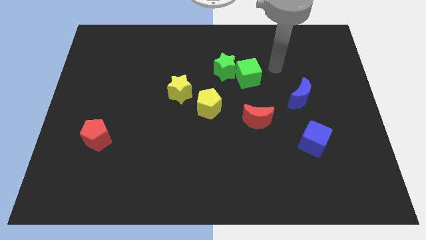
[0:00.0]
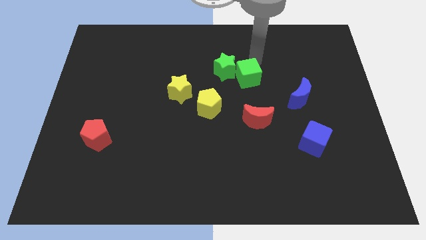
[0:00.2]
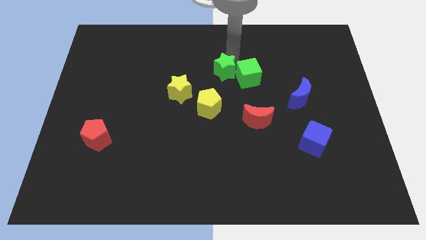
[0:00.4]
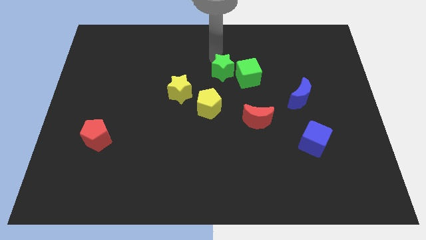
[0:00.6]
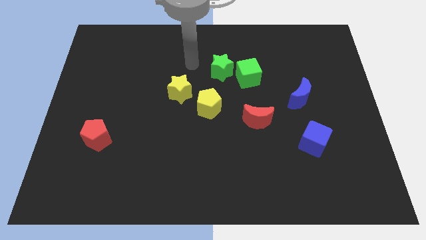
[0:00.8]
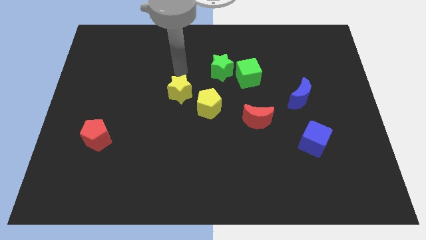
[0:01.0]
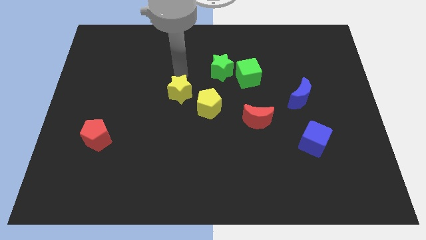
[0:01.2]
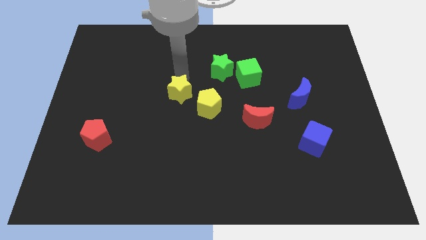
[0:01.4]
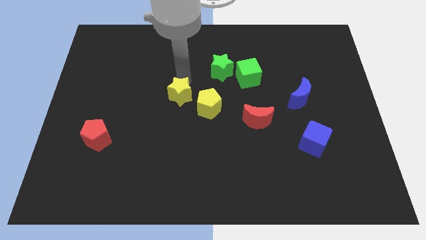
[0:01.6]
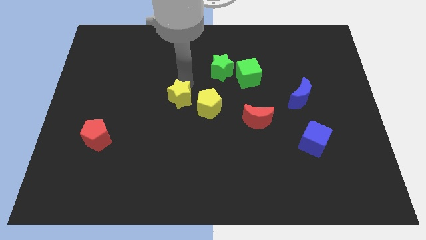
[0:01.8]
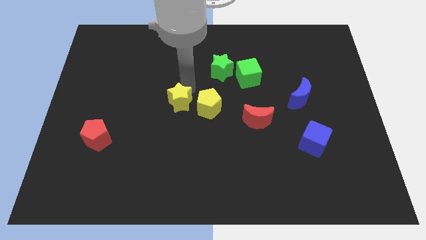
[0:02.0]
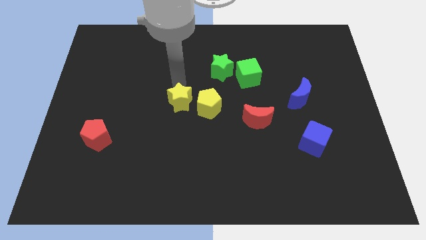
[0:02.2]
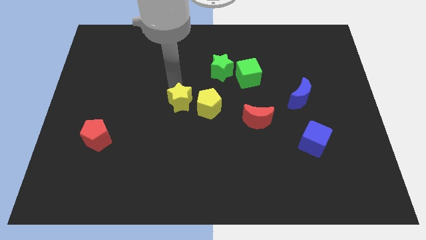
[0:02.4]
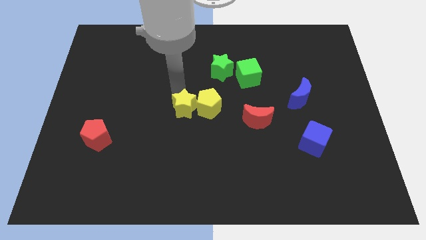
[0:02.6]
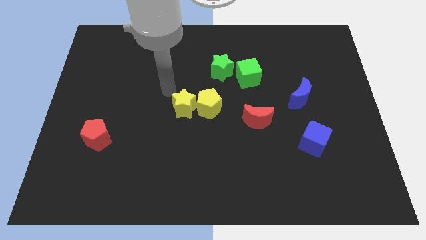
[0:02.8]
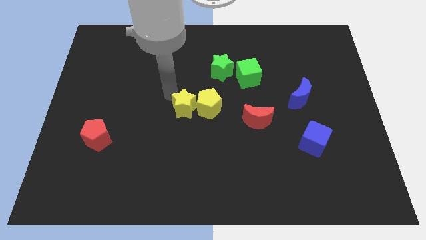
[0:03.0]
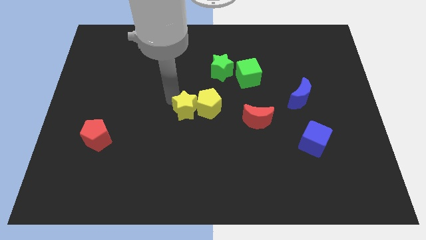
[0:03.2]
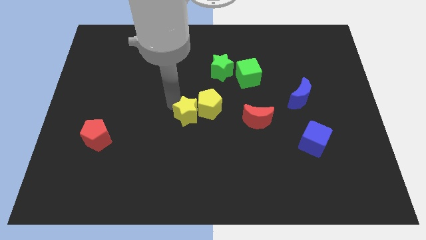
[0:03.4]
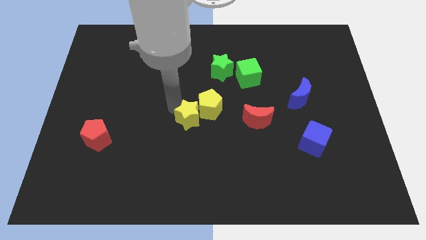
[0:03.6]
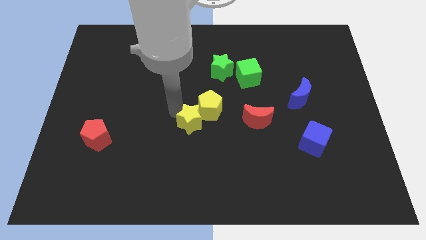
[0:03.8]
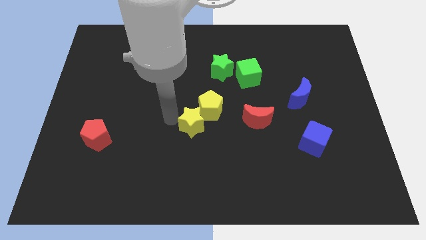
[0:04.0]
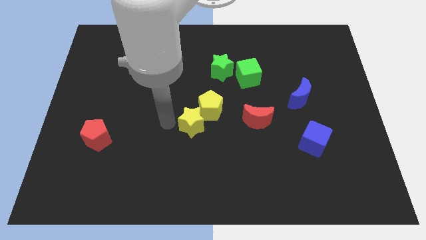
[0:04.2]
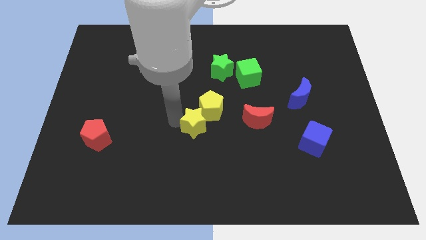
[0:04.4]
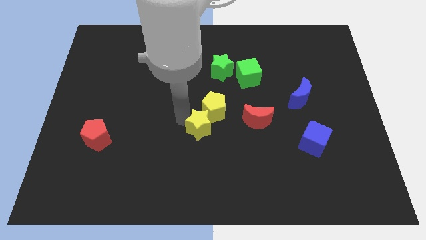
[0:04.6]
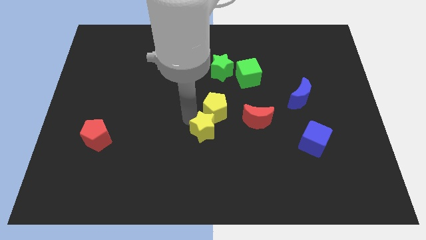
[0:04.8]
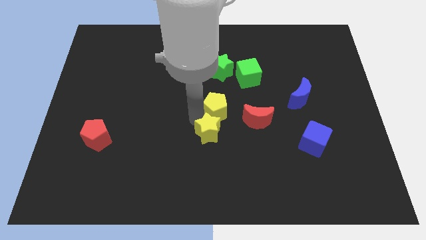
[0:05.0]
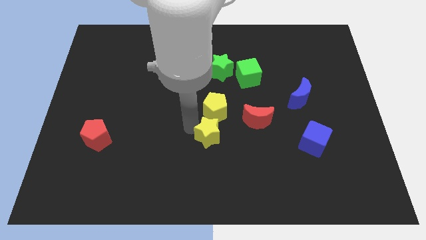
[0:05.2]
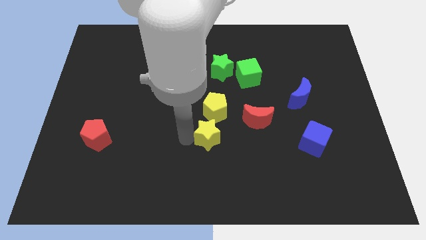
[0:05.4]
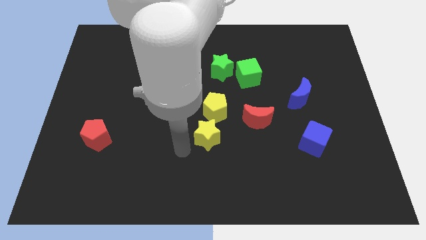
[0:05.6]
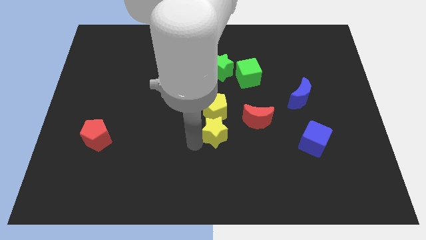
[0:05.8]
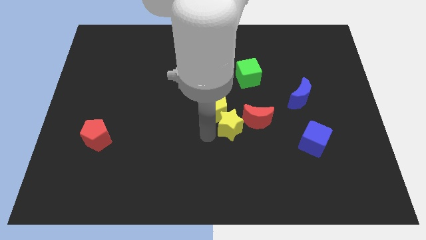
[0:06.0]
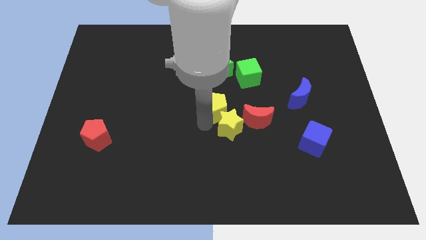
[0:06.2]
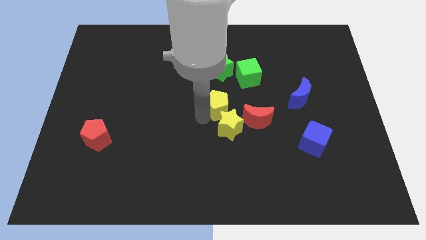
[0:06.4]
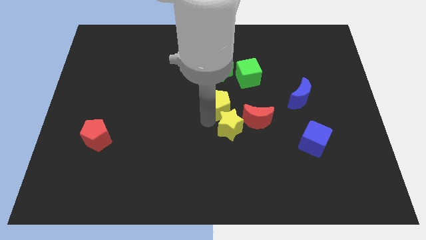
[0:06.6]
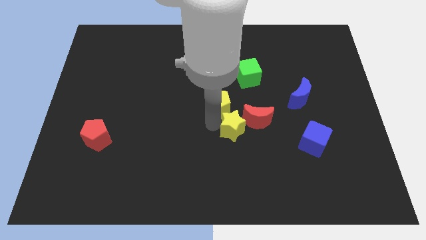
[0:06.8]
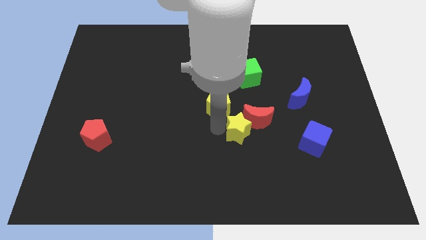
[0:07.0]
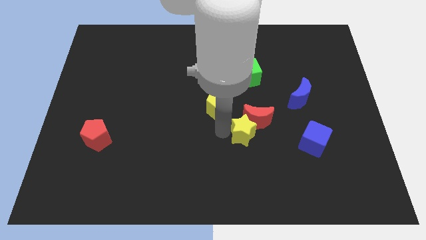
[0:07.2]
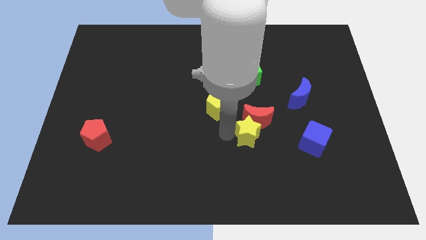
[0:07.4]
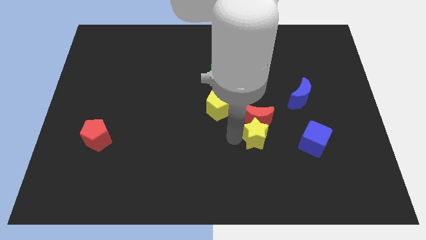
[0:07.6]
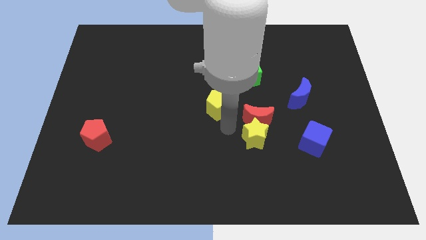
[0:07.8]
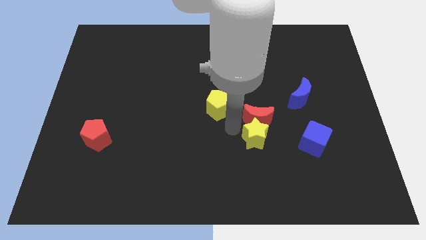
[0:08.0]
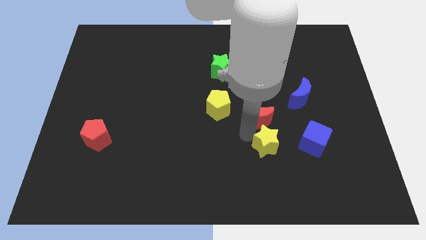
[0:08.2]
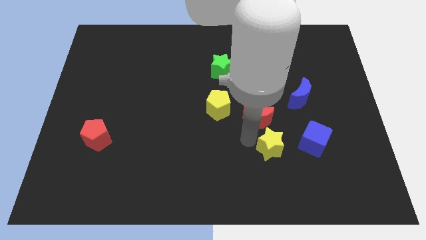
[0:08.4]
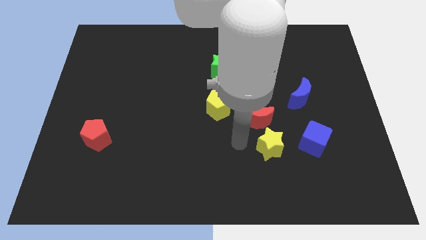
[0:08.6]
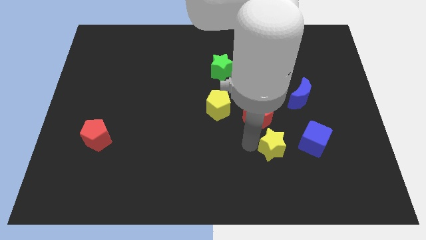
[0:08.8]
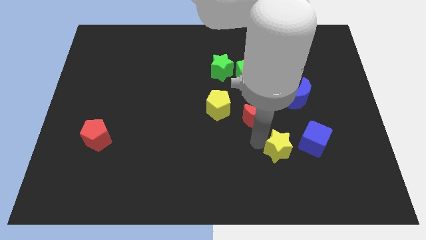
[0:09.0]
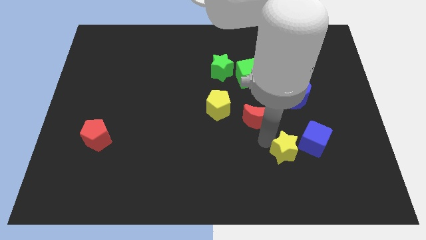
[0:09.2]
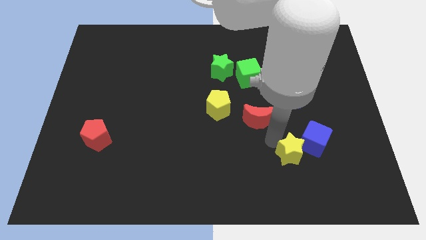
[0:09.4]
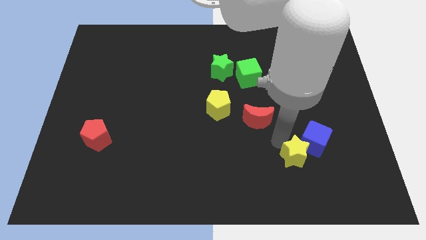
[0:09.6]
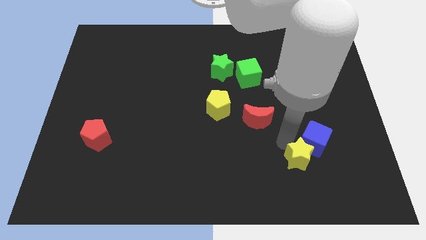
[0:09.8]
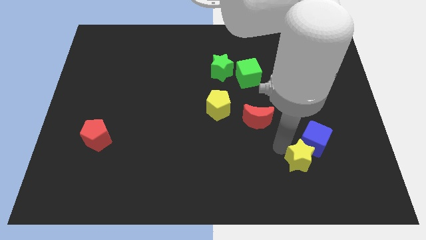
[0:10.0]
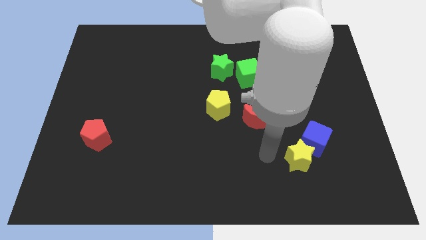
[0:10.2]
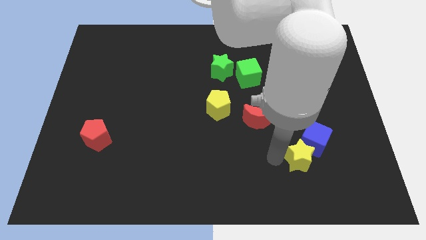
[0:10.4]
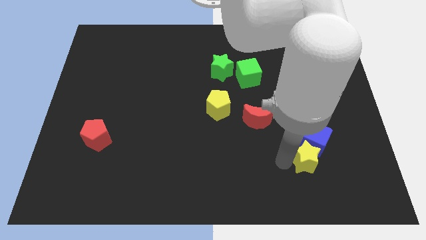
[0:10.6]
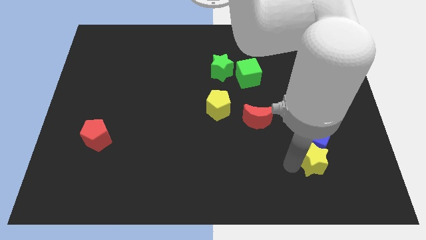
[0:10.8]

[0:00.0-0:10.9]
move the yellow star diagonally down and to the right of the blue cube

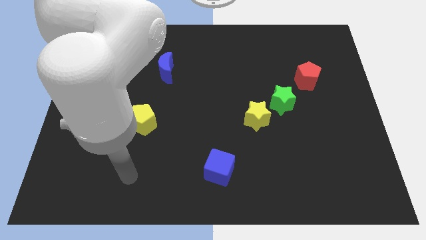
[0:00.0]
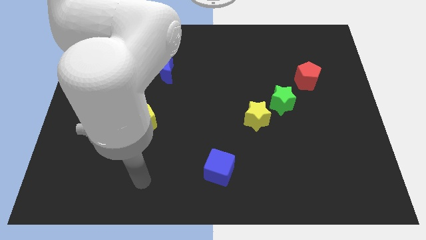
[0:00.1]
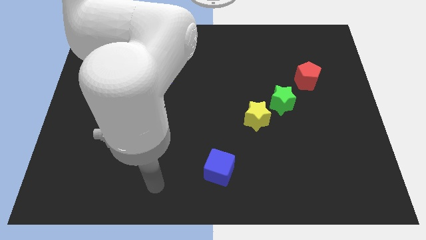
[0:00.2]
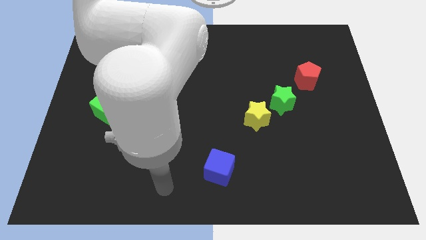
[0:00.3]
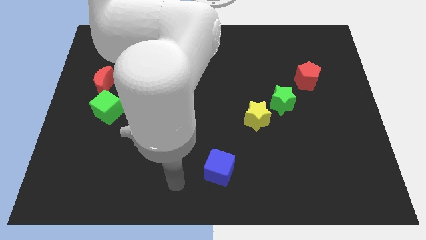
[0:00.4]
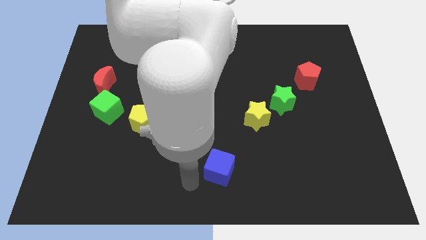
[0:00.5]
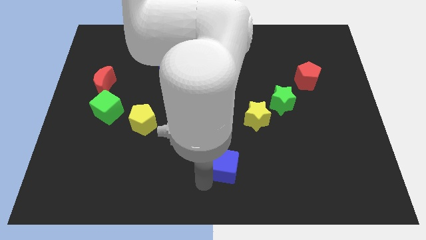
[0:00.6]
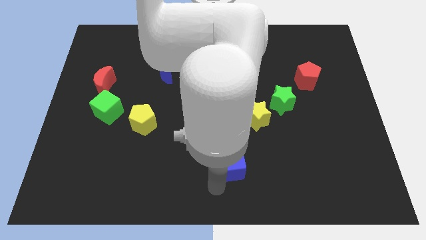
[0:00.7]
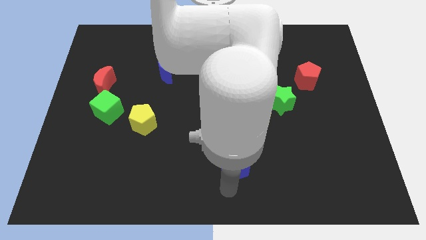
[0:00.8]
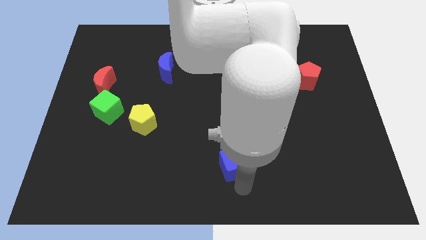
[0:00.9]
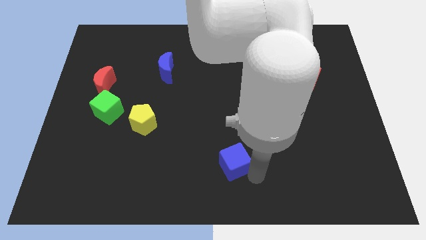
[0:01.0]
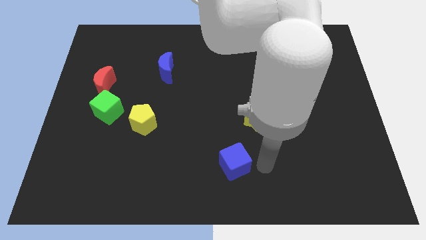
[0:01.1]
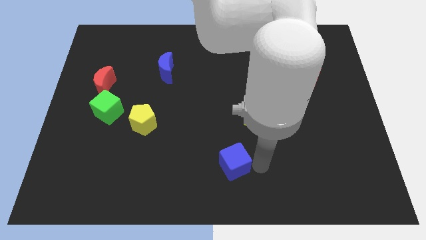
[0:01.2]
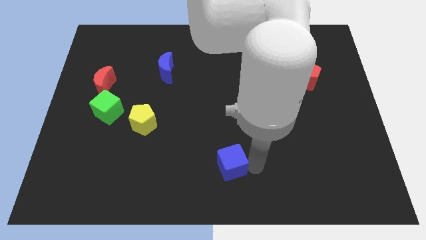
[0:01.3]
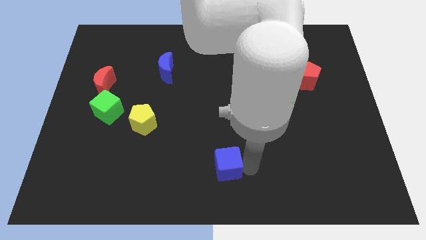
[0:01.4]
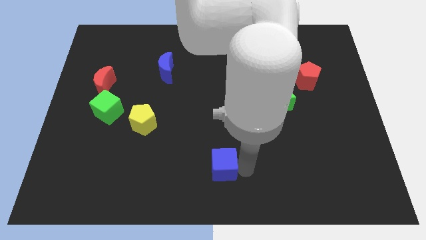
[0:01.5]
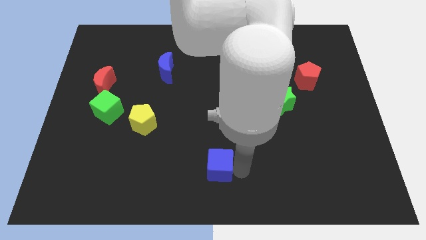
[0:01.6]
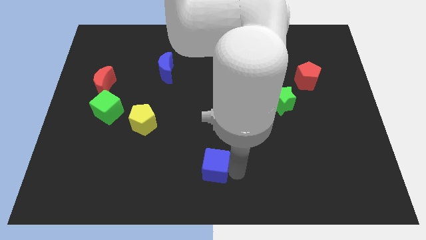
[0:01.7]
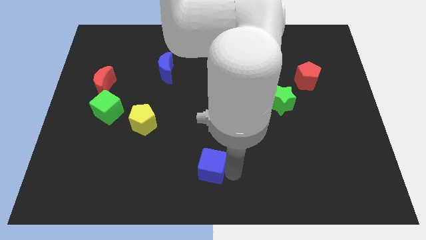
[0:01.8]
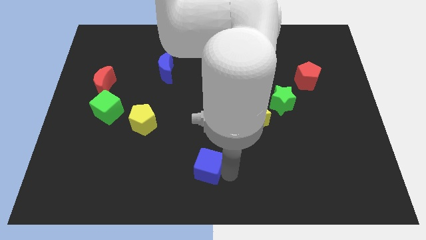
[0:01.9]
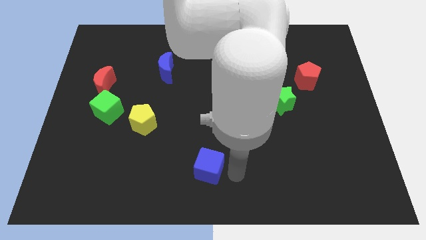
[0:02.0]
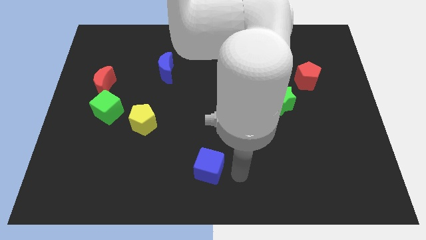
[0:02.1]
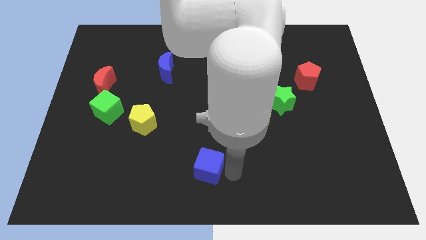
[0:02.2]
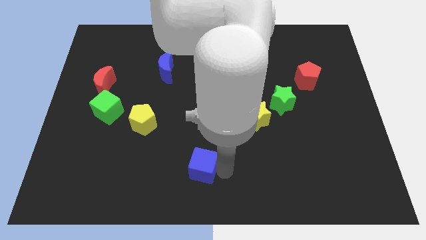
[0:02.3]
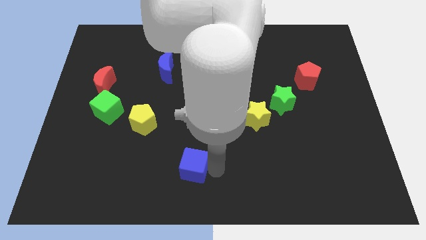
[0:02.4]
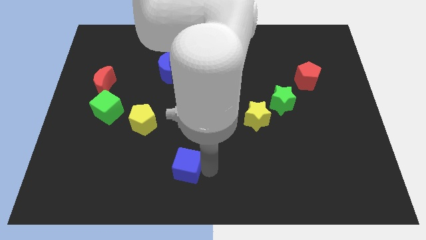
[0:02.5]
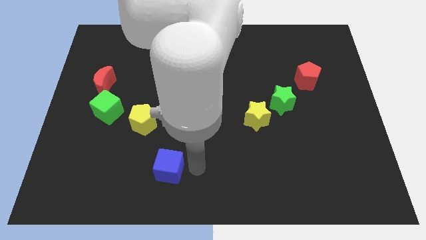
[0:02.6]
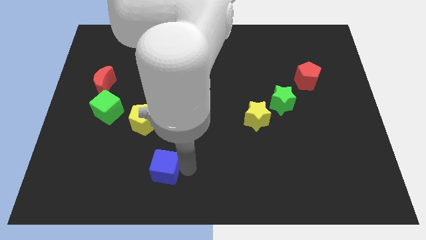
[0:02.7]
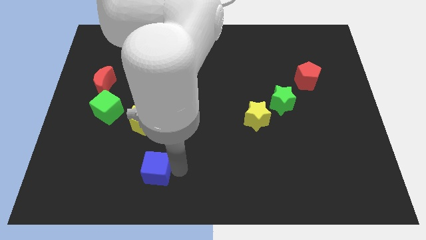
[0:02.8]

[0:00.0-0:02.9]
push the blue cube to the bottom side of the yellow pentagon
